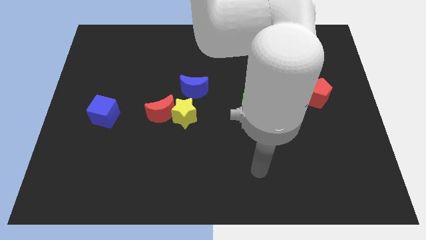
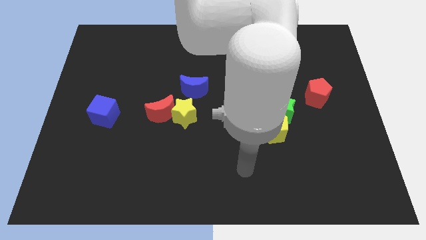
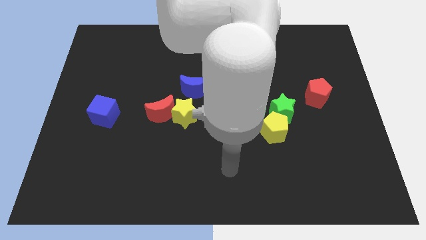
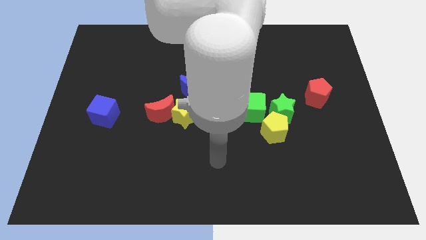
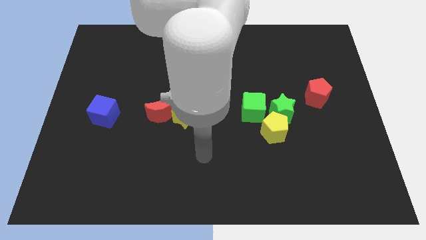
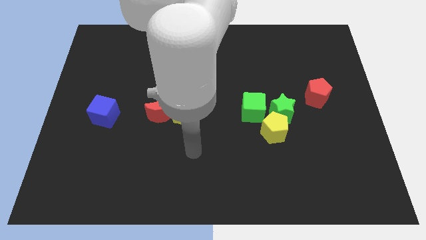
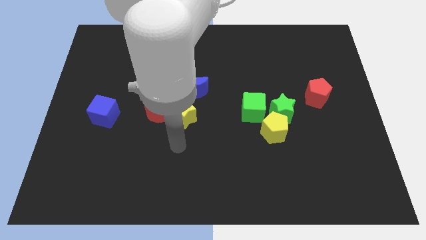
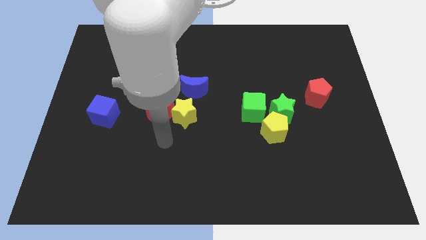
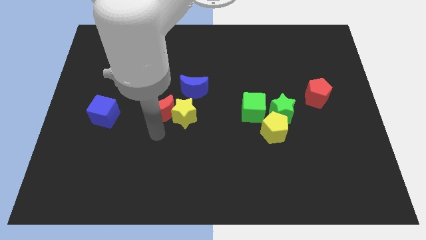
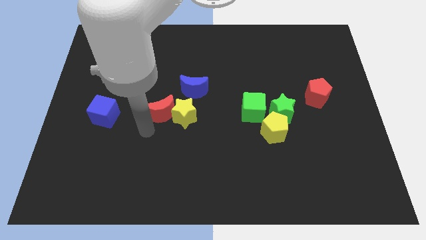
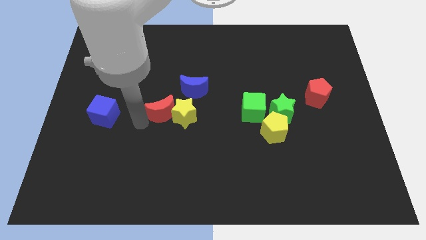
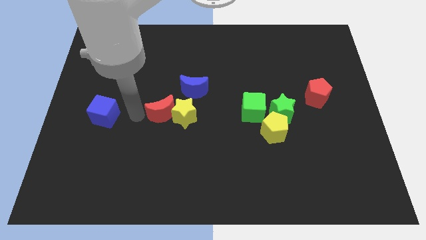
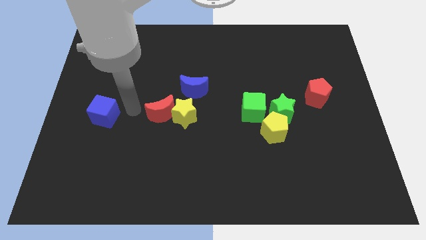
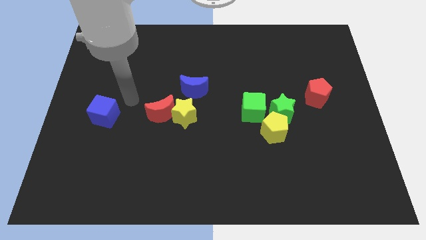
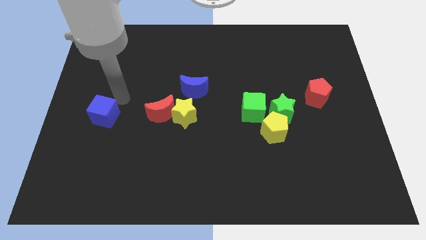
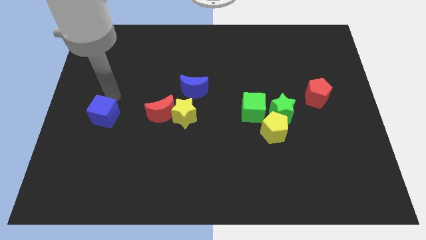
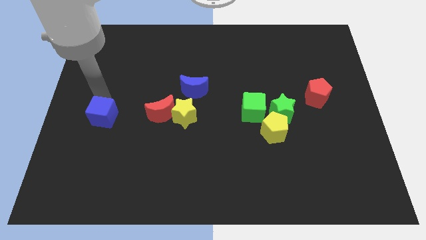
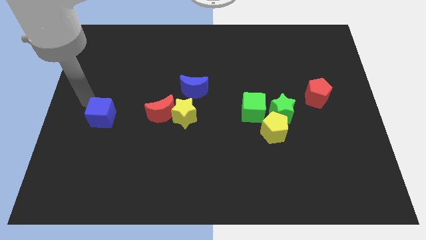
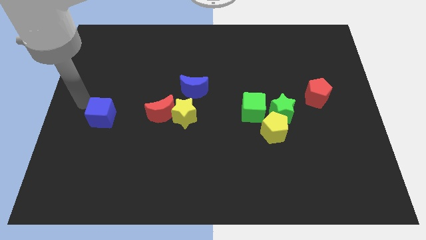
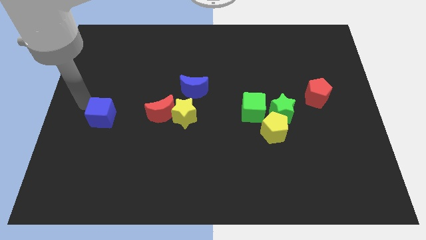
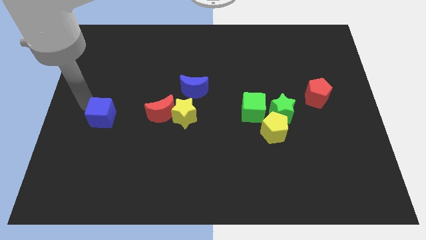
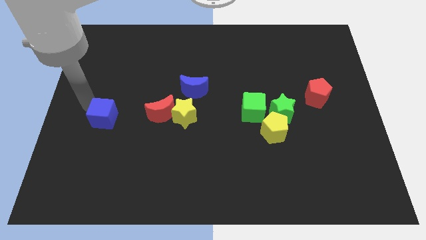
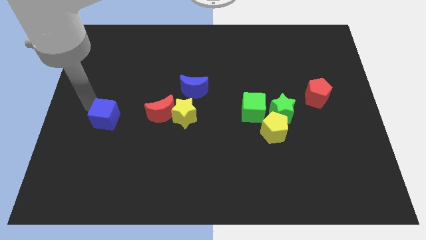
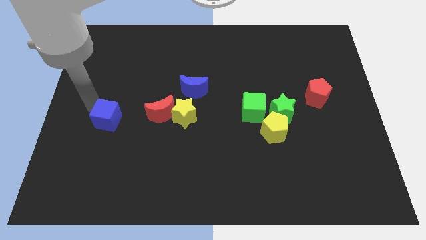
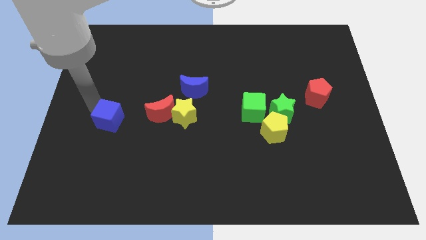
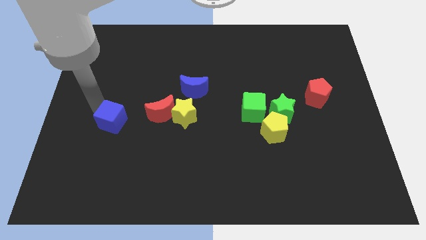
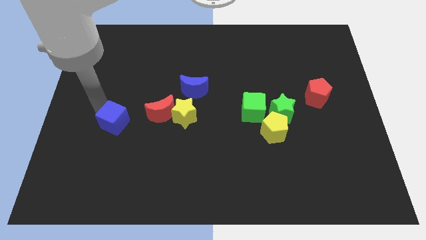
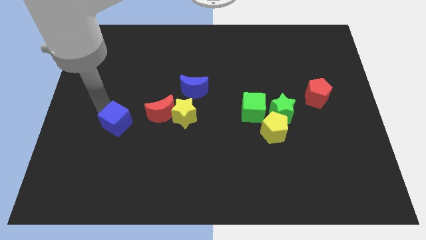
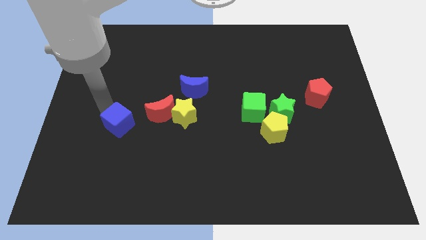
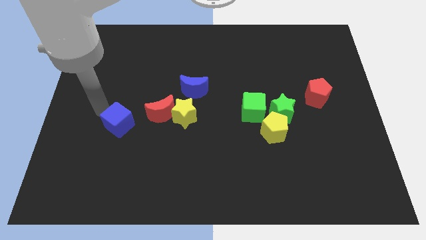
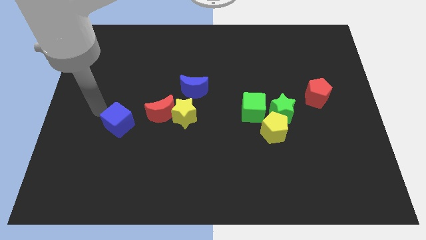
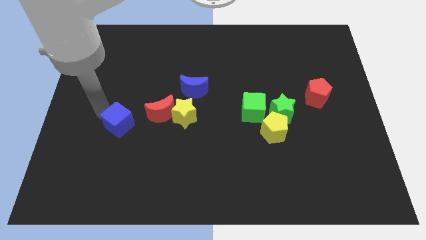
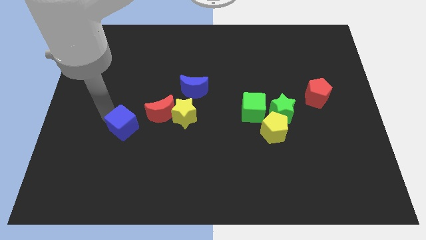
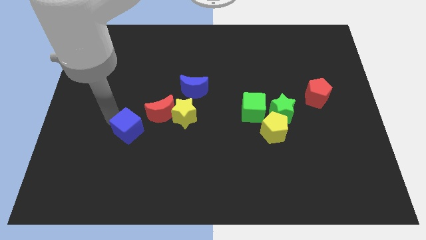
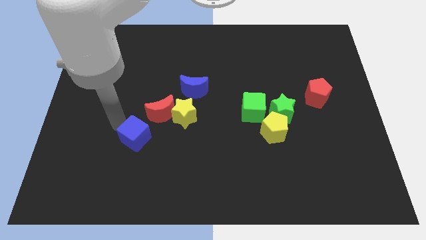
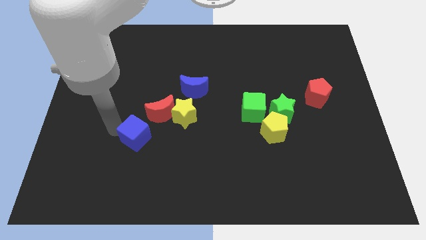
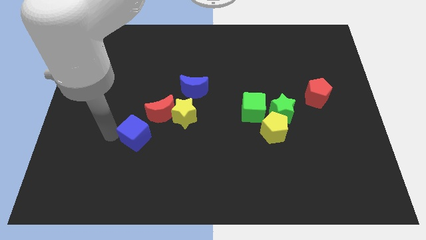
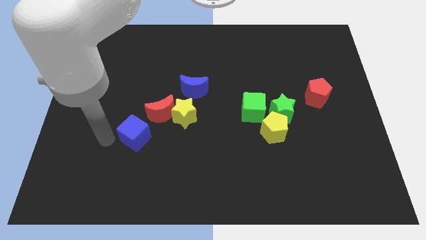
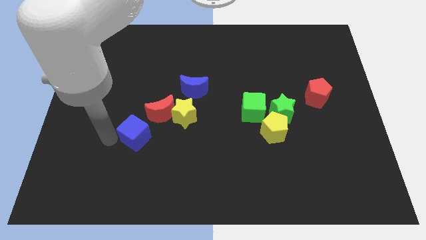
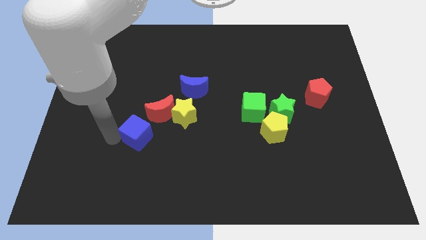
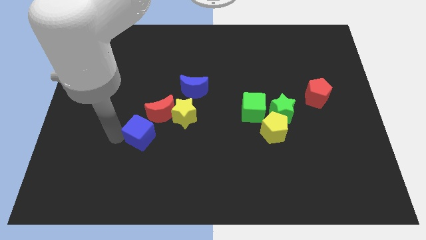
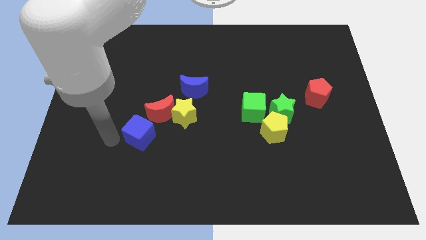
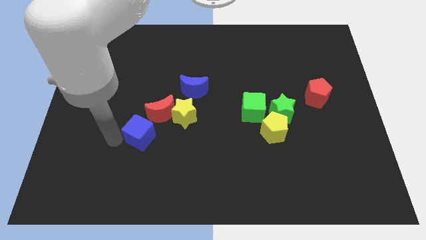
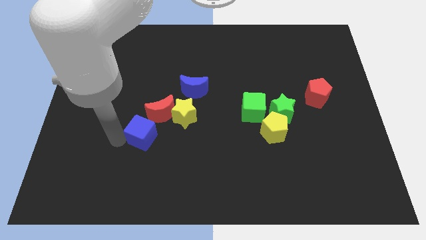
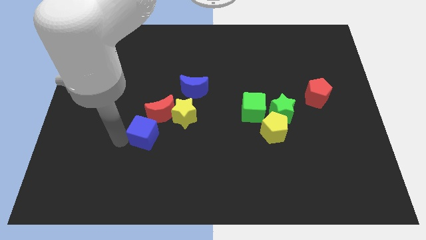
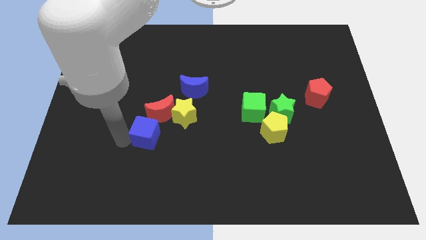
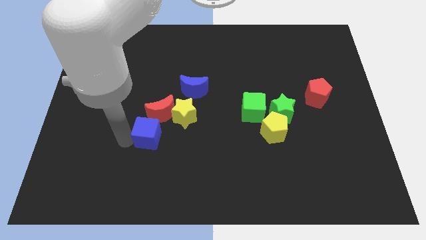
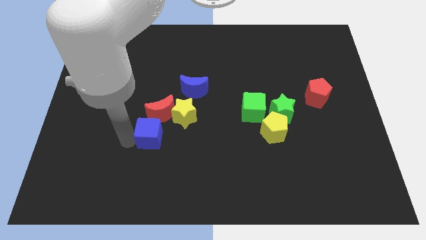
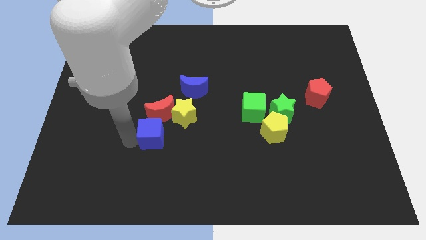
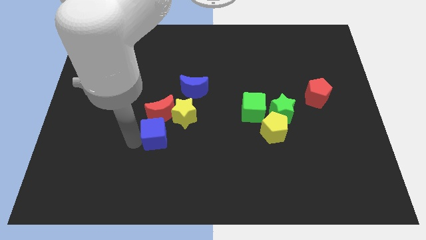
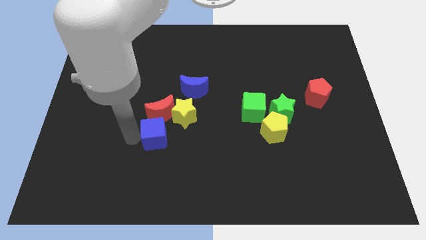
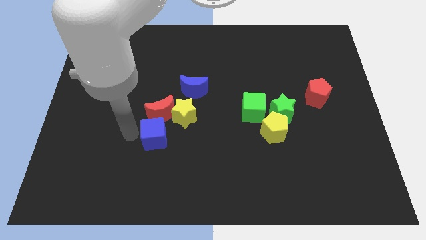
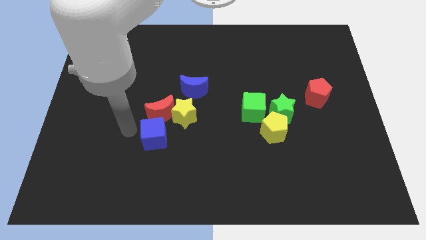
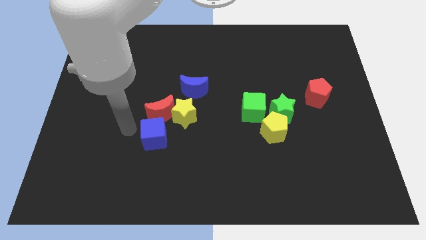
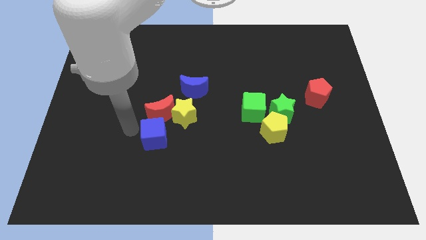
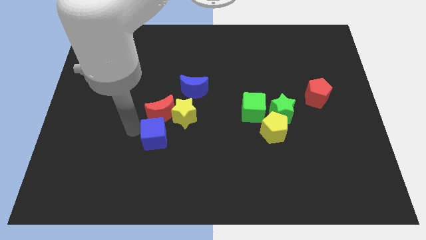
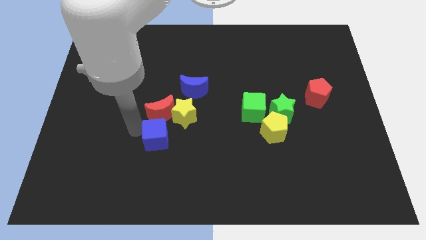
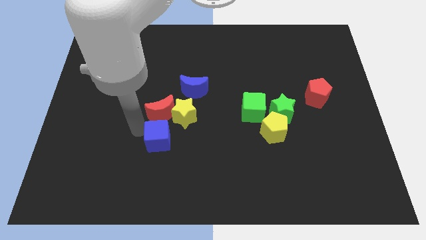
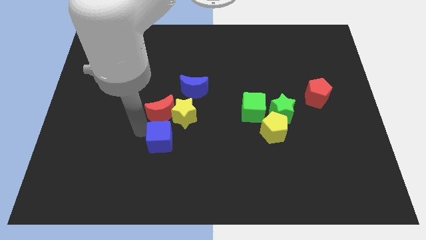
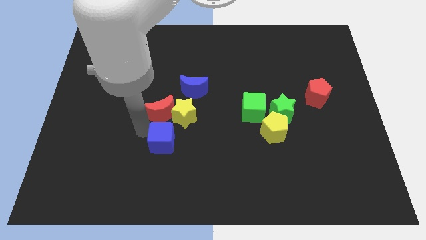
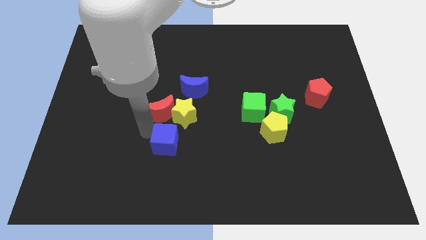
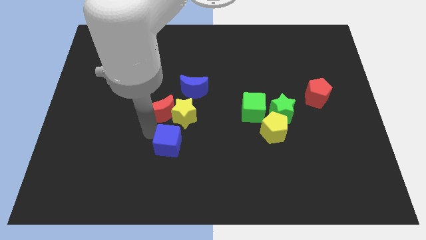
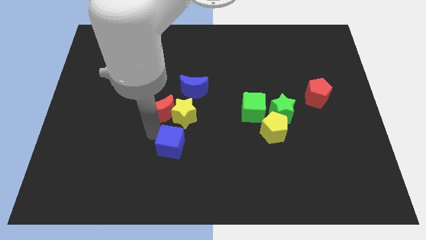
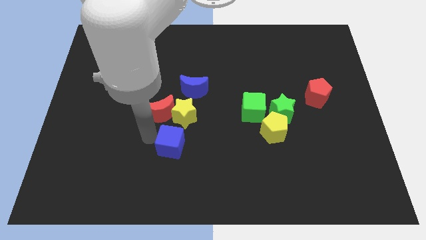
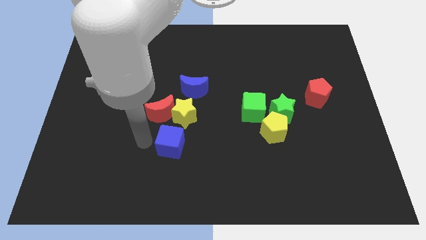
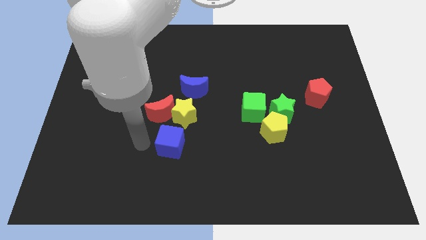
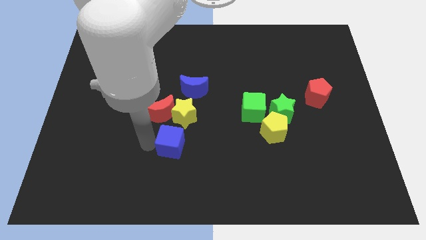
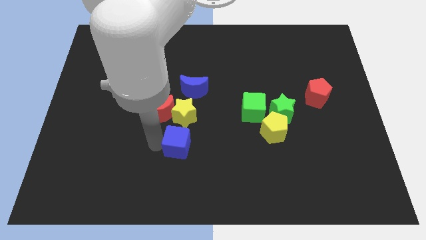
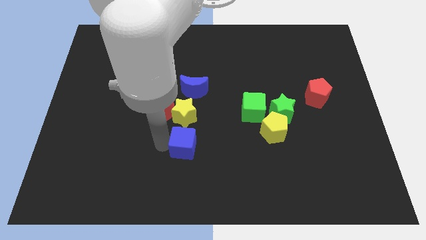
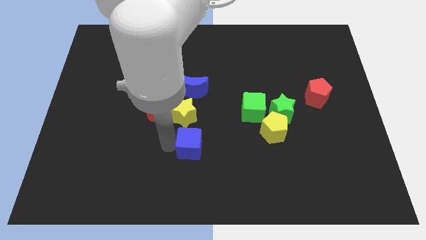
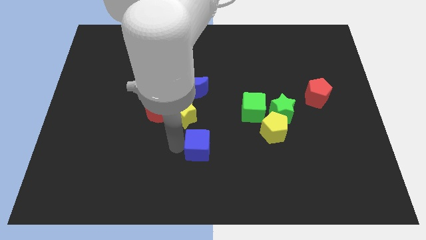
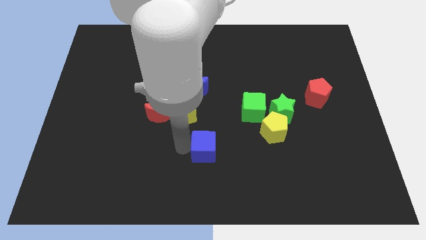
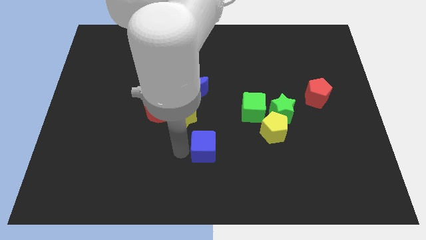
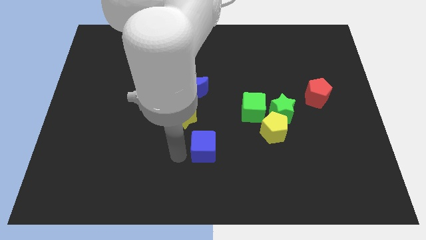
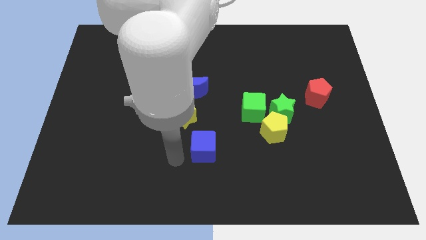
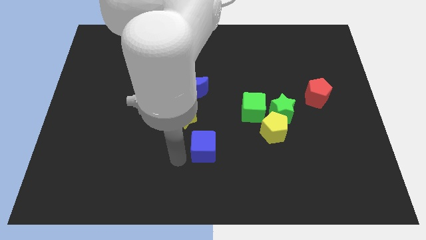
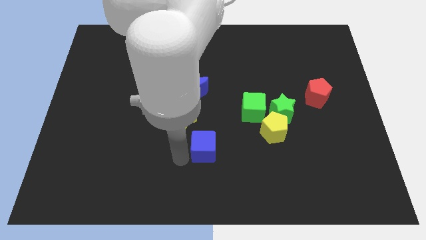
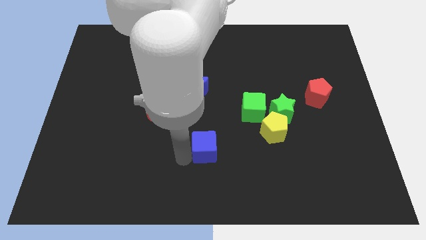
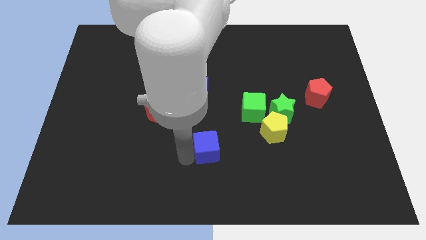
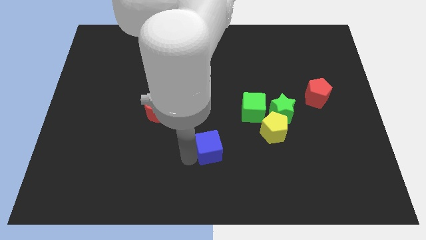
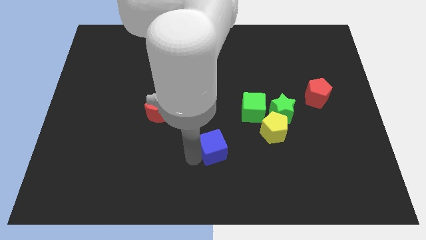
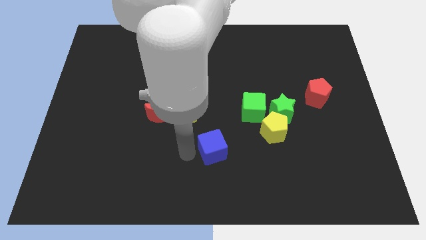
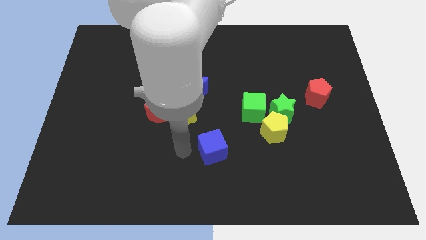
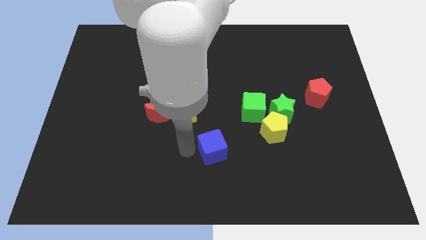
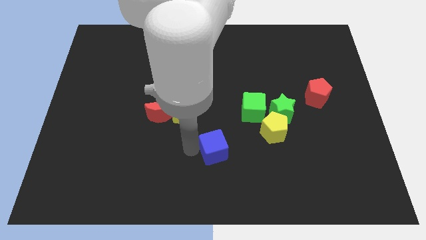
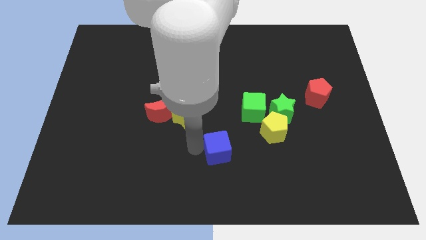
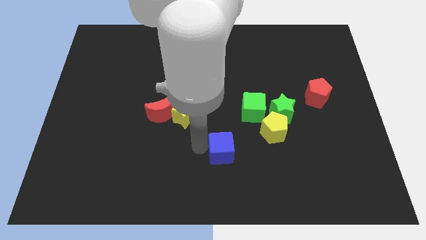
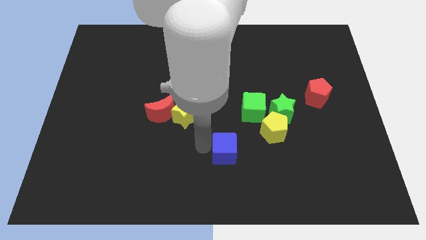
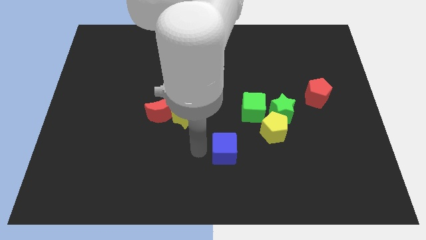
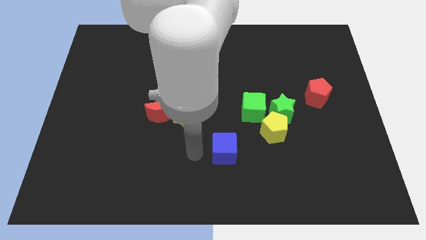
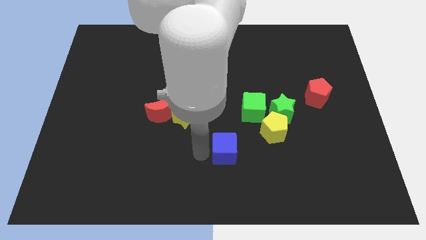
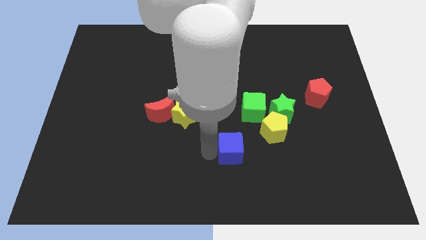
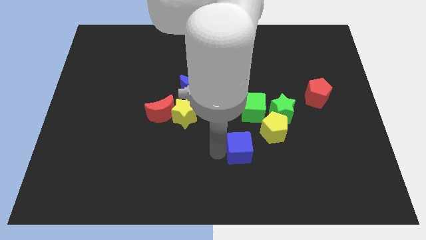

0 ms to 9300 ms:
slide the blue cube below the green cube
